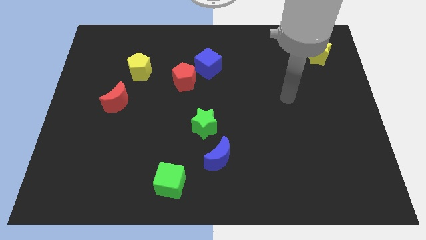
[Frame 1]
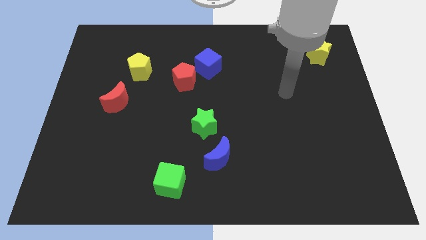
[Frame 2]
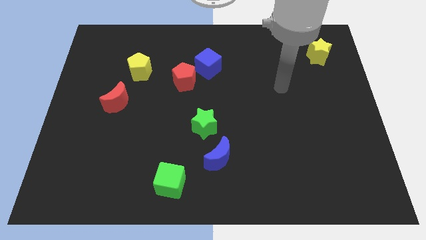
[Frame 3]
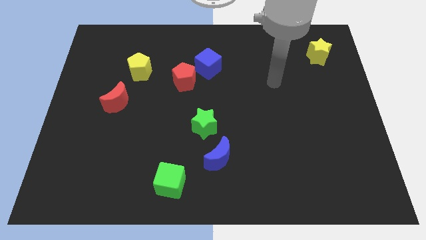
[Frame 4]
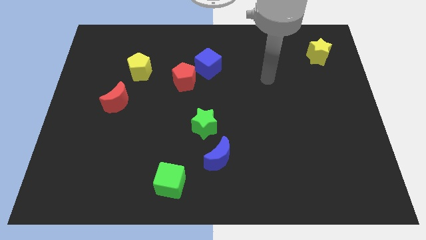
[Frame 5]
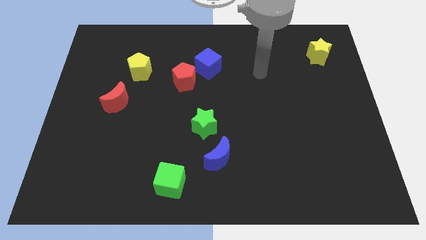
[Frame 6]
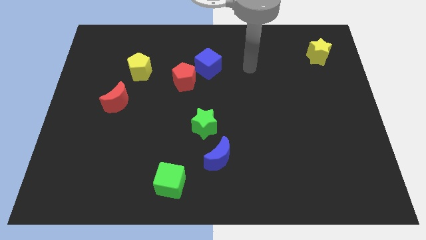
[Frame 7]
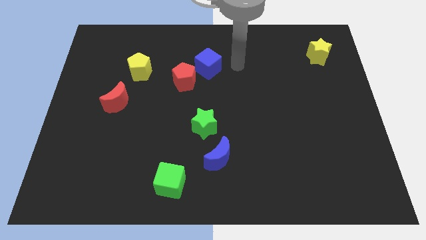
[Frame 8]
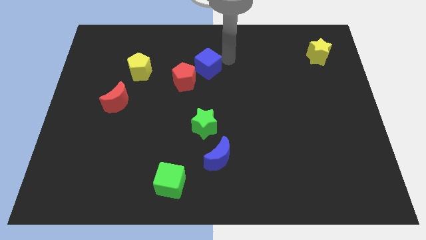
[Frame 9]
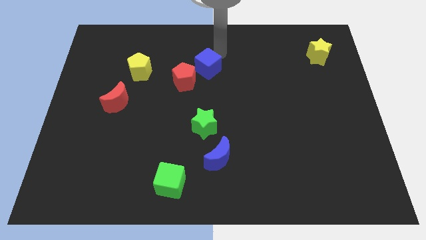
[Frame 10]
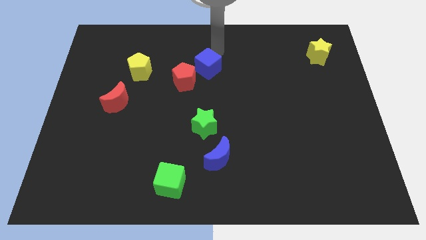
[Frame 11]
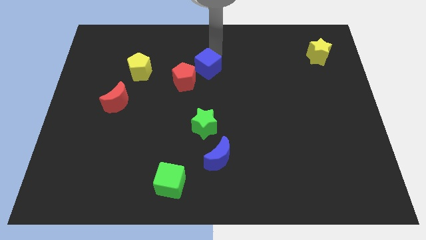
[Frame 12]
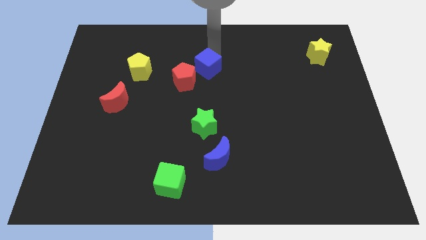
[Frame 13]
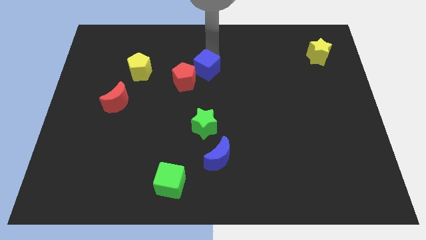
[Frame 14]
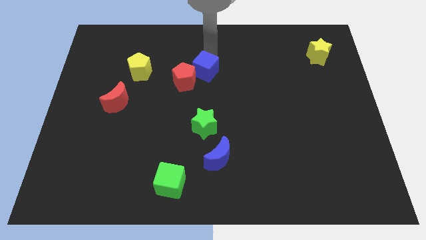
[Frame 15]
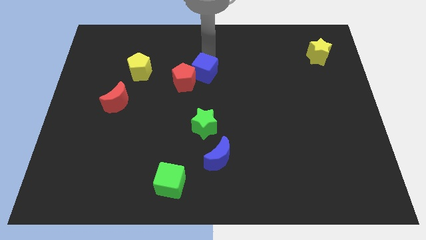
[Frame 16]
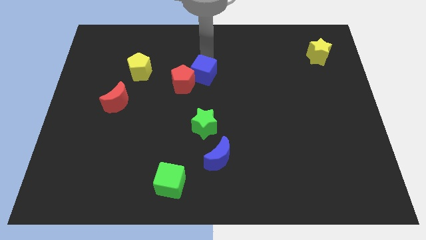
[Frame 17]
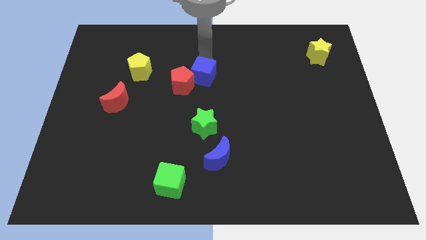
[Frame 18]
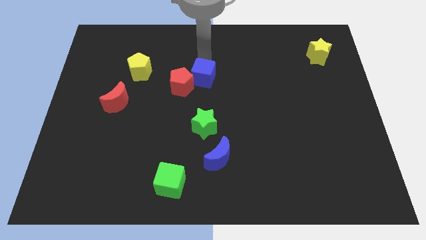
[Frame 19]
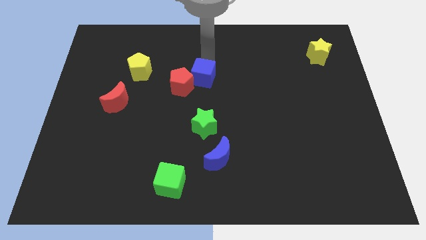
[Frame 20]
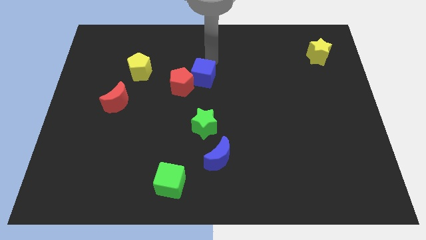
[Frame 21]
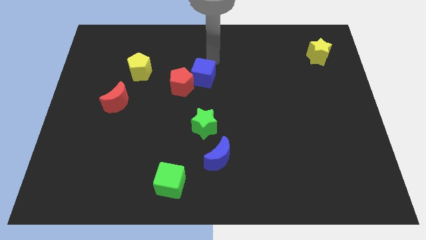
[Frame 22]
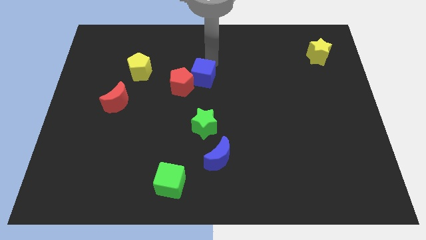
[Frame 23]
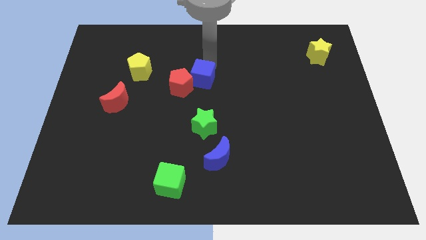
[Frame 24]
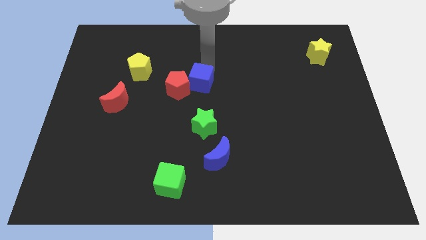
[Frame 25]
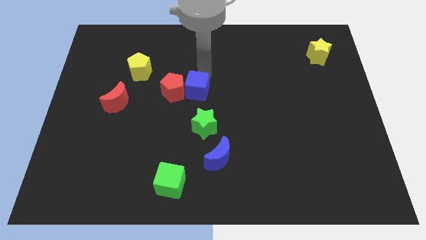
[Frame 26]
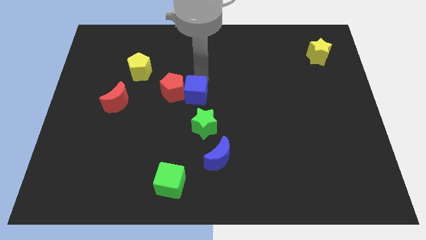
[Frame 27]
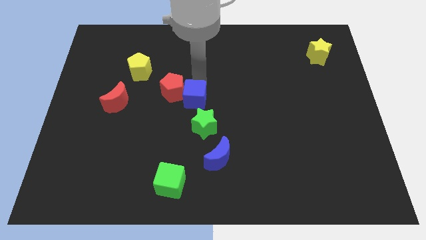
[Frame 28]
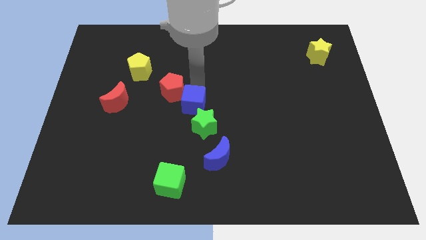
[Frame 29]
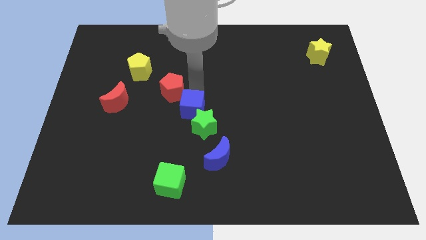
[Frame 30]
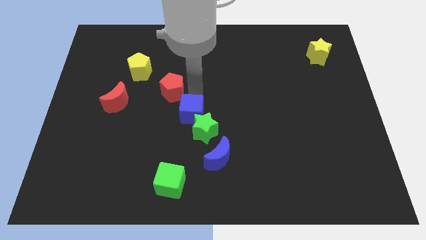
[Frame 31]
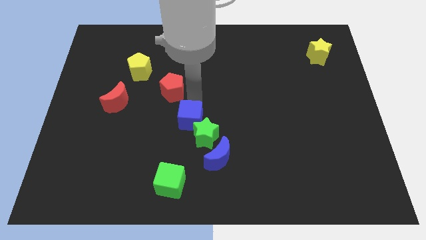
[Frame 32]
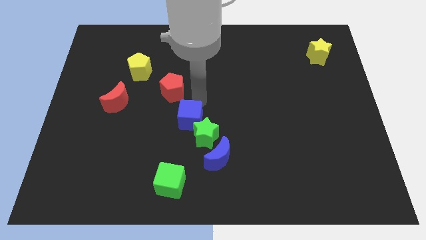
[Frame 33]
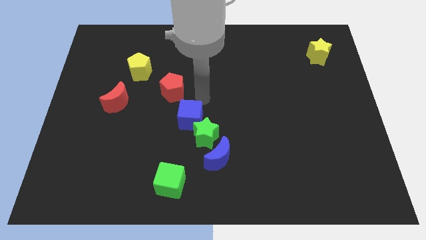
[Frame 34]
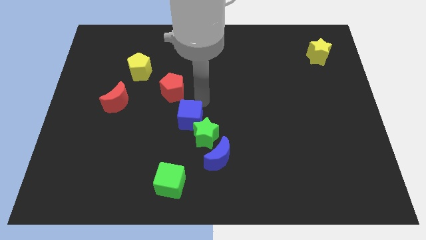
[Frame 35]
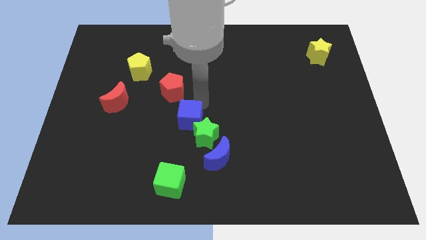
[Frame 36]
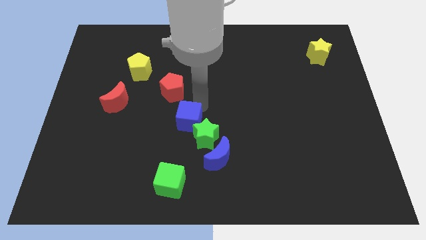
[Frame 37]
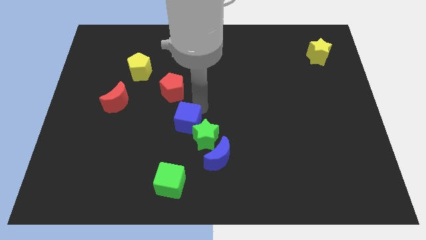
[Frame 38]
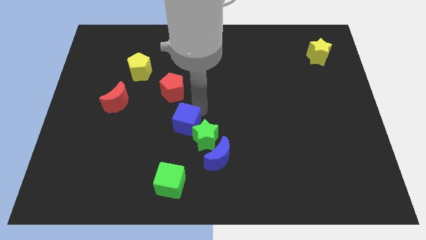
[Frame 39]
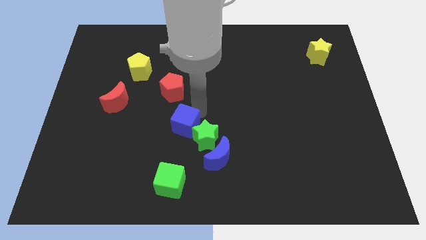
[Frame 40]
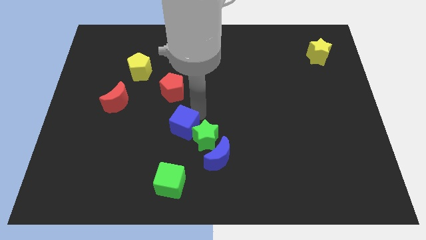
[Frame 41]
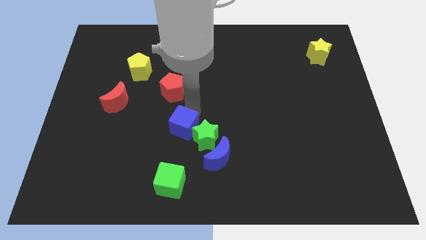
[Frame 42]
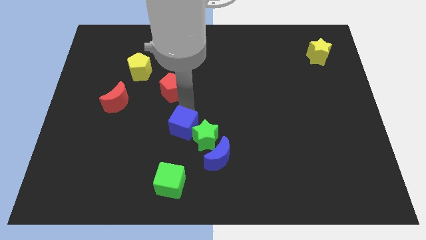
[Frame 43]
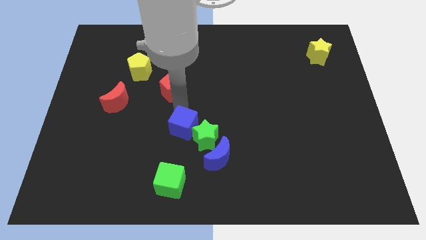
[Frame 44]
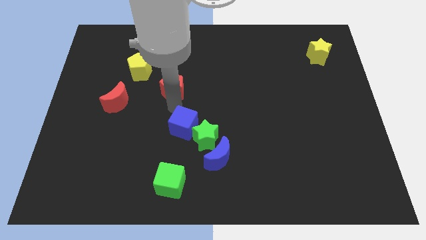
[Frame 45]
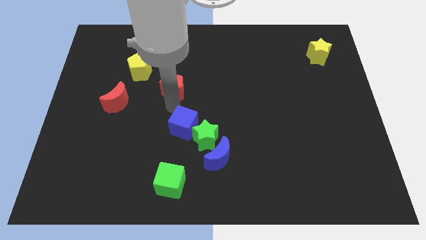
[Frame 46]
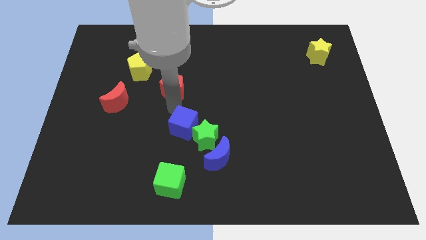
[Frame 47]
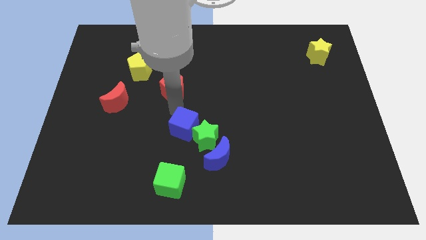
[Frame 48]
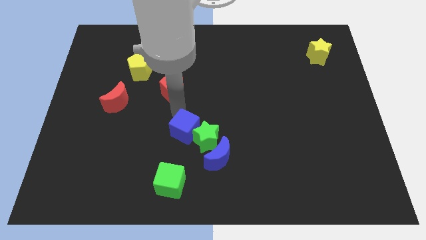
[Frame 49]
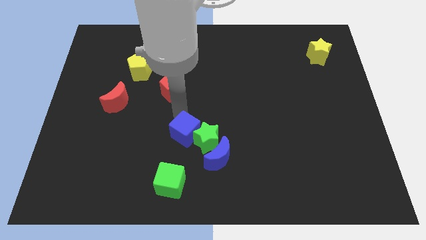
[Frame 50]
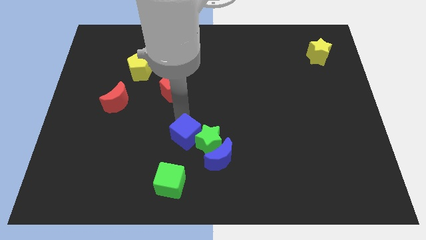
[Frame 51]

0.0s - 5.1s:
push the blue cube down

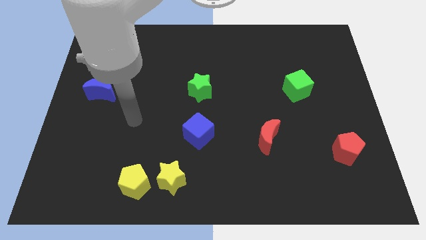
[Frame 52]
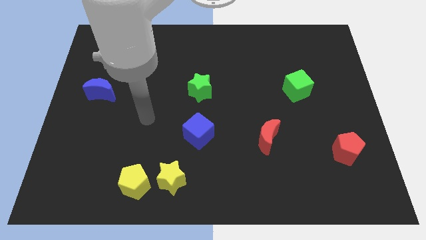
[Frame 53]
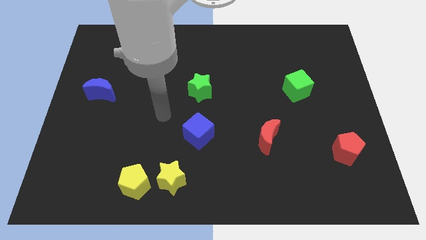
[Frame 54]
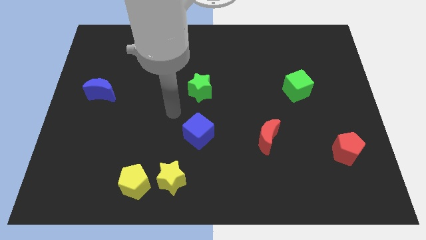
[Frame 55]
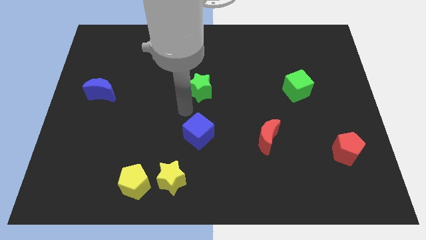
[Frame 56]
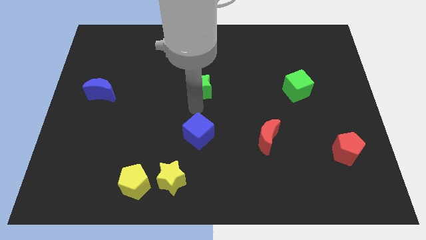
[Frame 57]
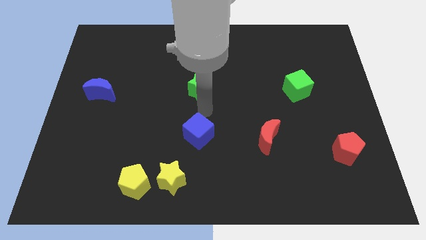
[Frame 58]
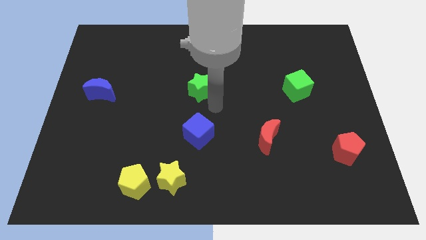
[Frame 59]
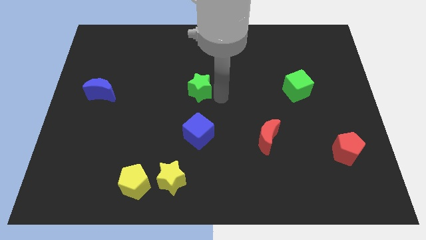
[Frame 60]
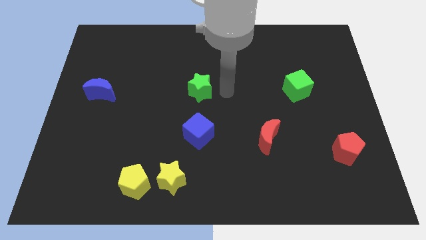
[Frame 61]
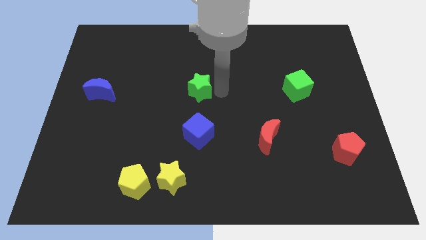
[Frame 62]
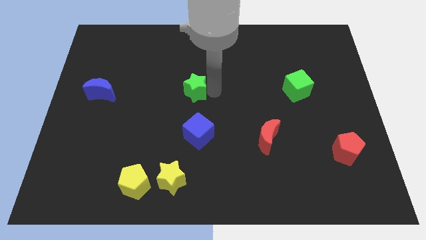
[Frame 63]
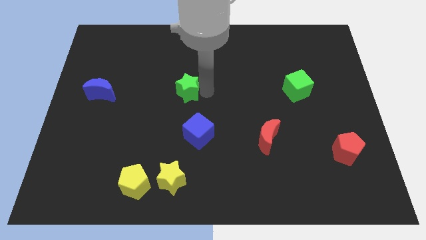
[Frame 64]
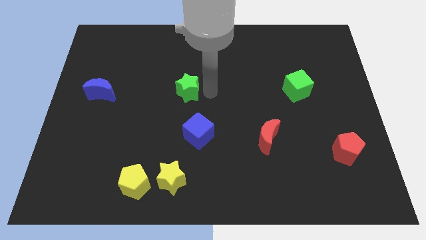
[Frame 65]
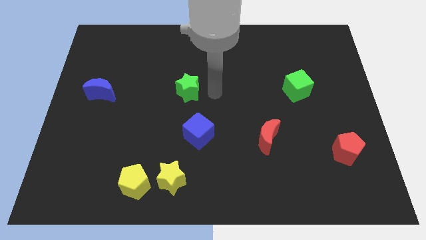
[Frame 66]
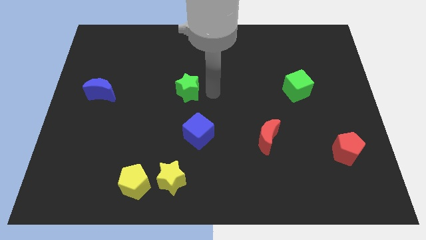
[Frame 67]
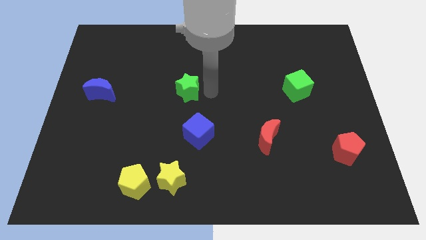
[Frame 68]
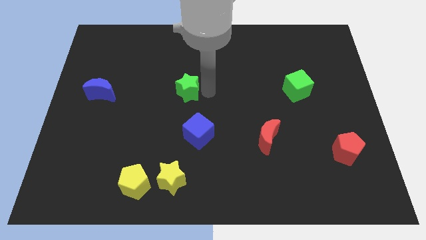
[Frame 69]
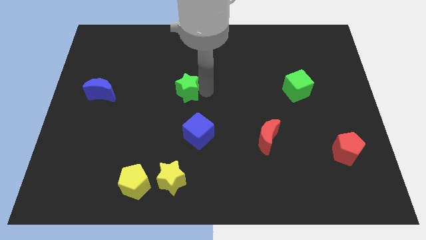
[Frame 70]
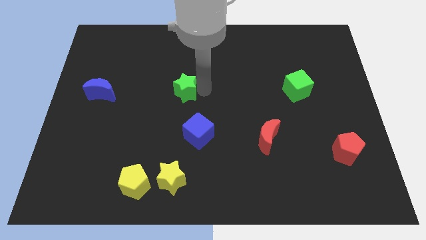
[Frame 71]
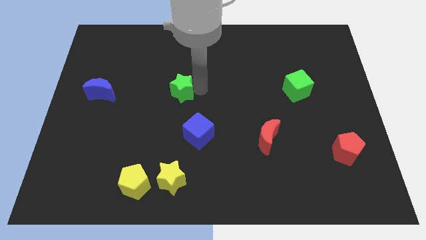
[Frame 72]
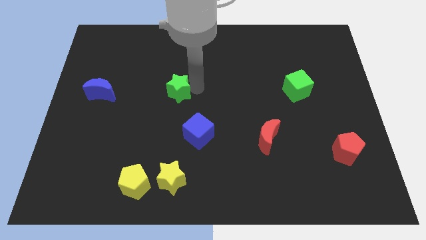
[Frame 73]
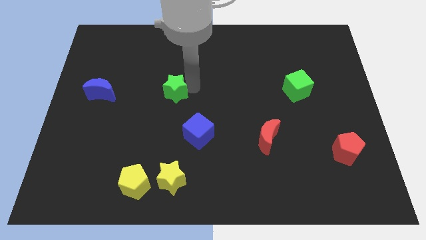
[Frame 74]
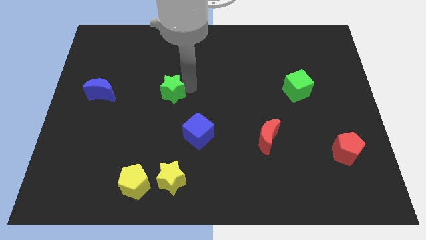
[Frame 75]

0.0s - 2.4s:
slide the green star to the left a little
